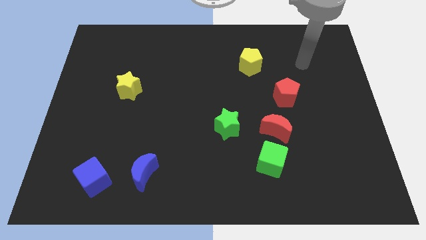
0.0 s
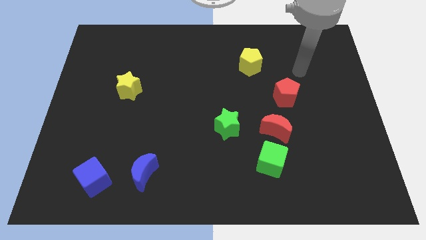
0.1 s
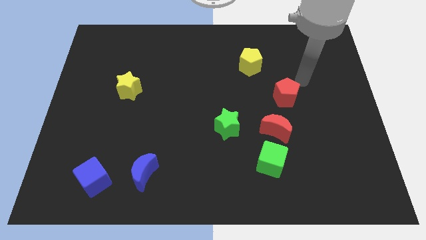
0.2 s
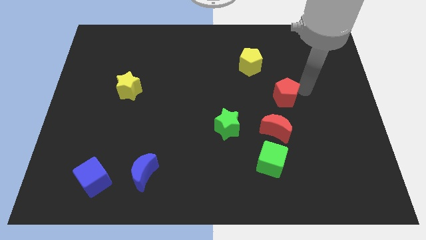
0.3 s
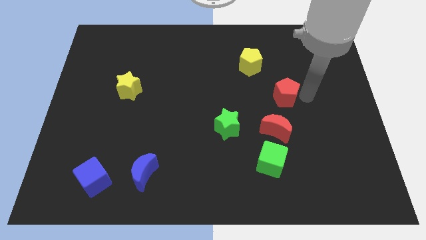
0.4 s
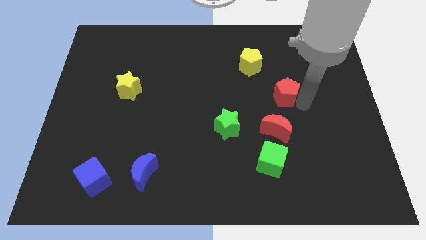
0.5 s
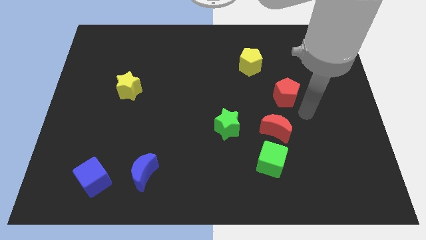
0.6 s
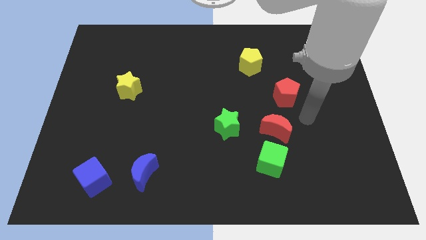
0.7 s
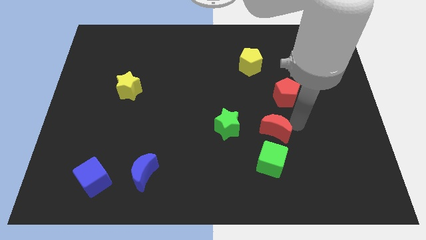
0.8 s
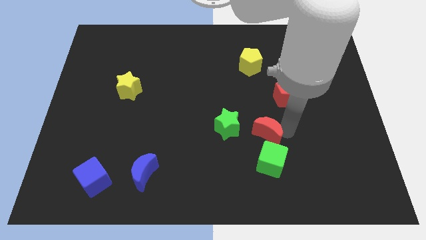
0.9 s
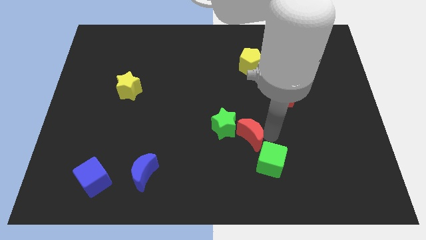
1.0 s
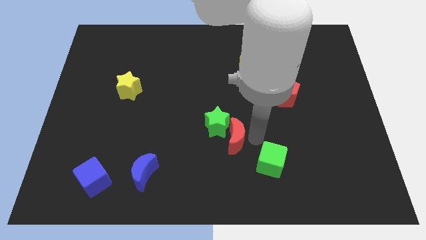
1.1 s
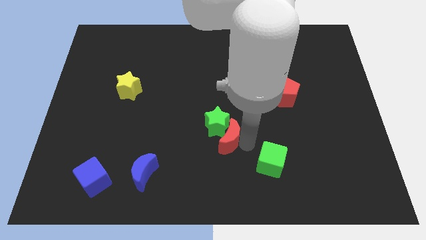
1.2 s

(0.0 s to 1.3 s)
move the green cube away from the red moon

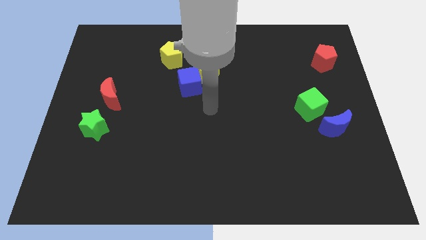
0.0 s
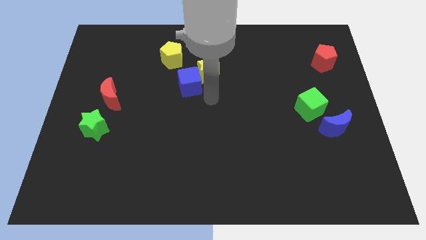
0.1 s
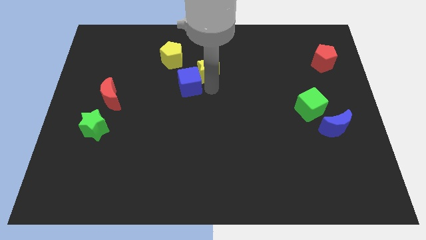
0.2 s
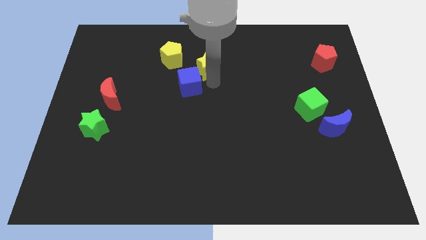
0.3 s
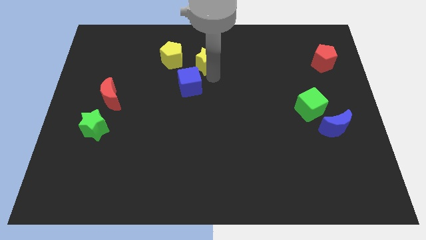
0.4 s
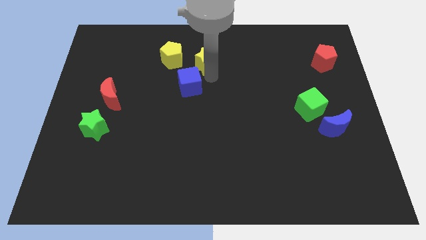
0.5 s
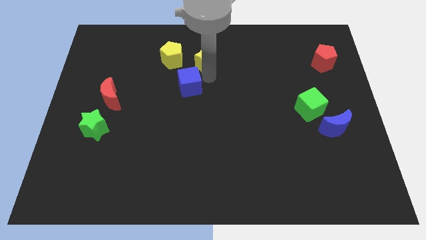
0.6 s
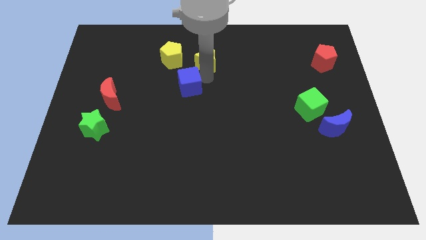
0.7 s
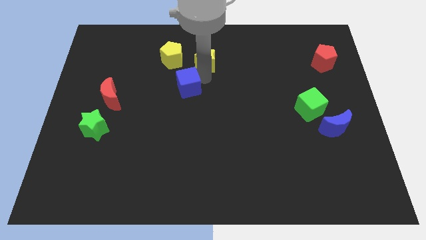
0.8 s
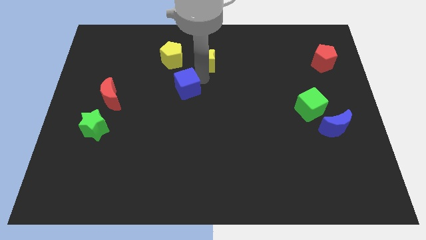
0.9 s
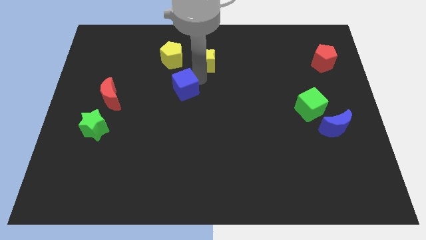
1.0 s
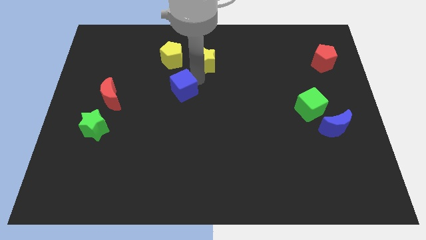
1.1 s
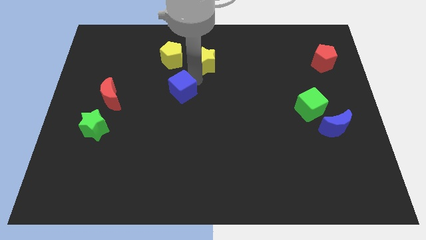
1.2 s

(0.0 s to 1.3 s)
pull the blue cube apart from the yellow star

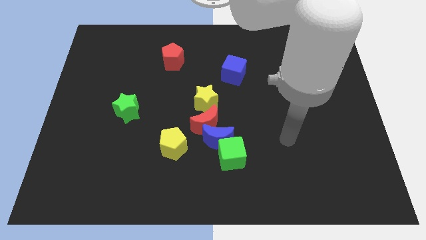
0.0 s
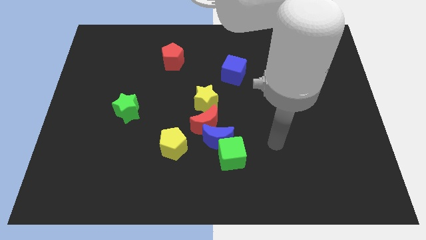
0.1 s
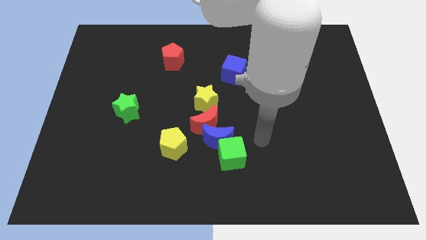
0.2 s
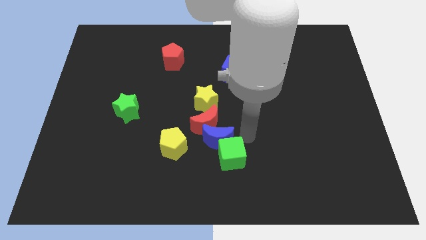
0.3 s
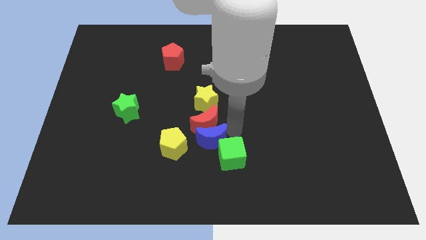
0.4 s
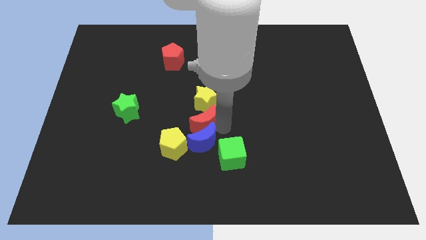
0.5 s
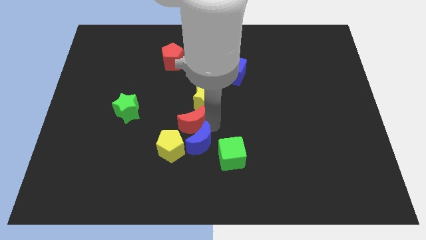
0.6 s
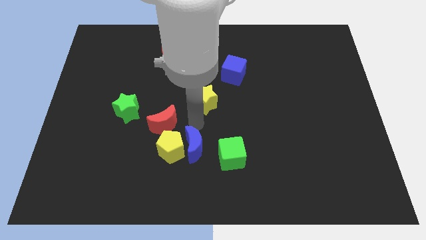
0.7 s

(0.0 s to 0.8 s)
pull the yellow star apart from the red moon

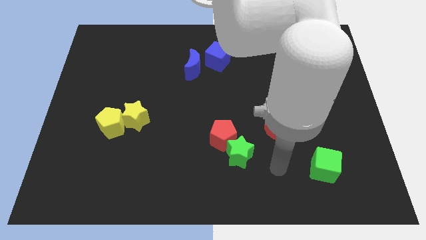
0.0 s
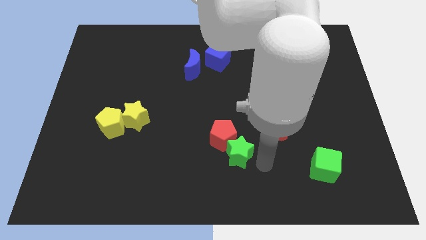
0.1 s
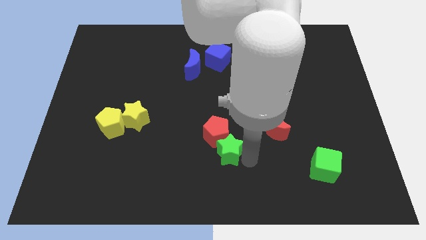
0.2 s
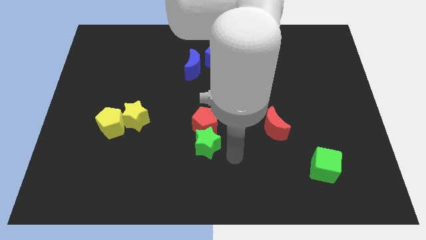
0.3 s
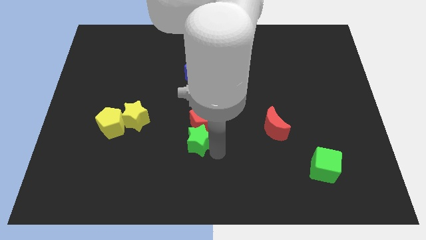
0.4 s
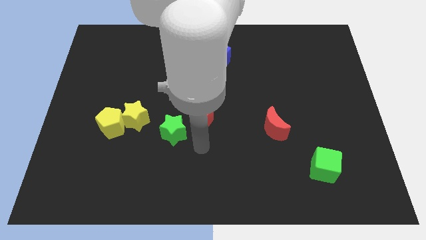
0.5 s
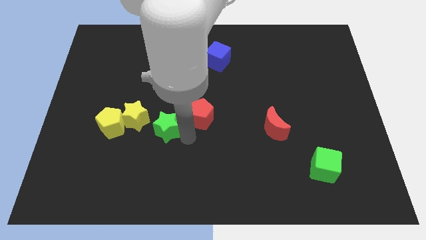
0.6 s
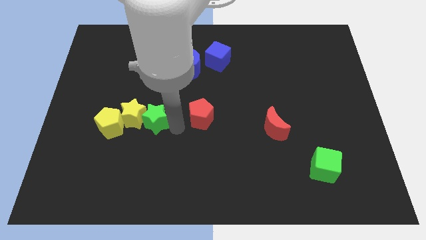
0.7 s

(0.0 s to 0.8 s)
move the red pentagon away from the green star

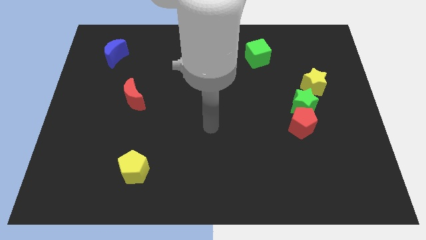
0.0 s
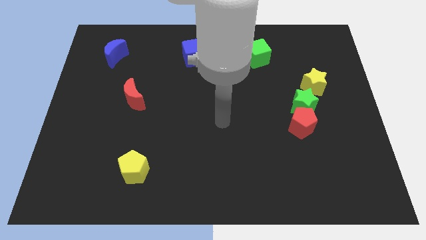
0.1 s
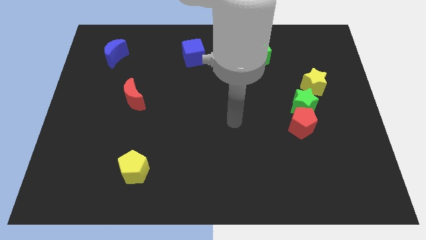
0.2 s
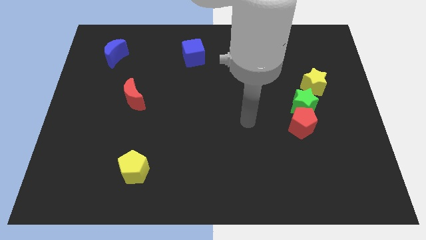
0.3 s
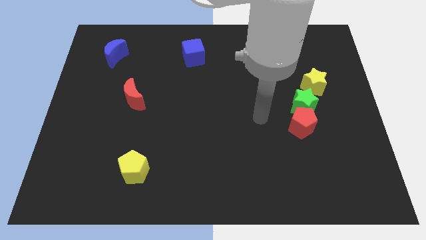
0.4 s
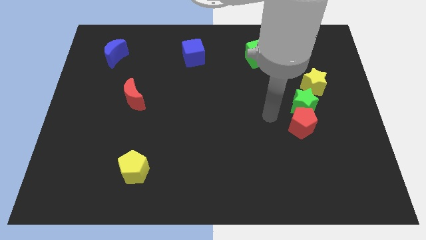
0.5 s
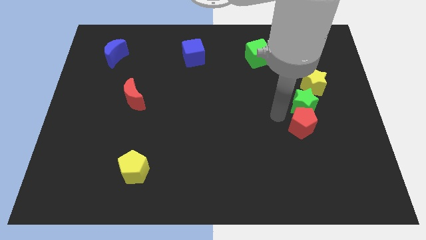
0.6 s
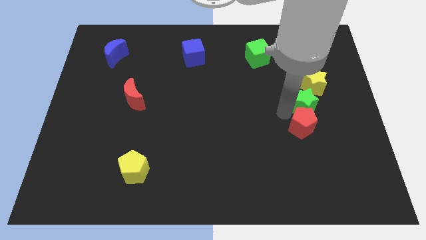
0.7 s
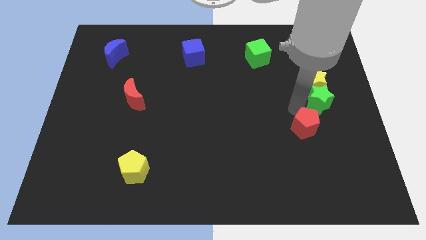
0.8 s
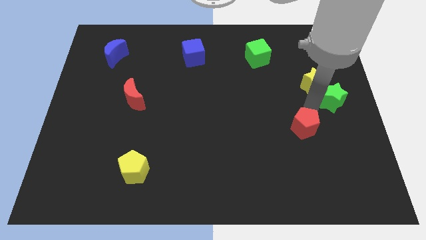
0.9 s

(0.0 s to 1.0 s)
pull the red pentagon apart from the green star

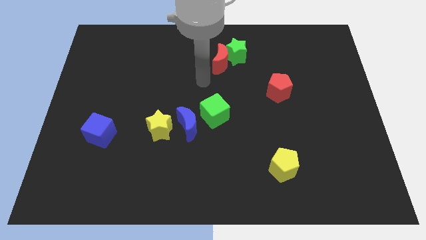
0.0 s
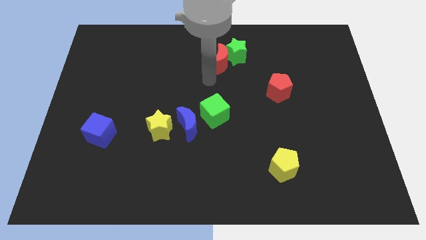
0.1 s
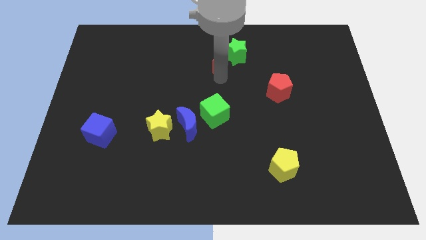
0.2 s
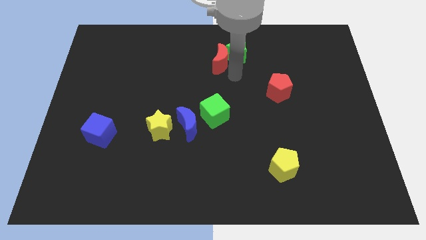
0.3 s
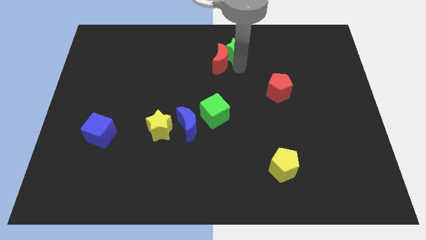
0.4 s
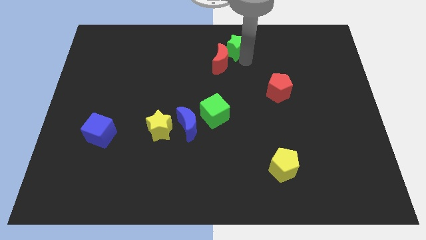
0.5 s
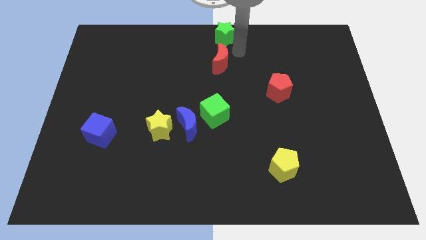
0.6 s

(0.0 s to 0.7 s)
pull the red moon apart from the green star

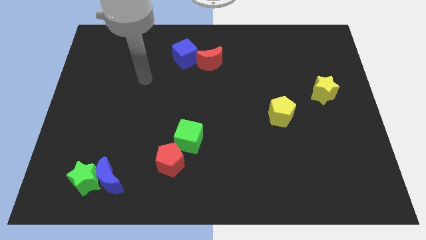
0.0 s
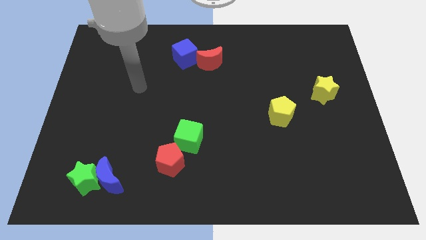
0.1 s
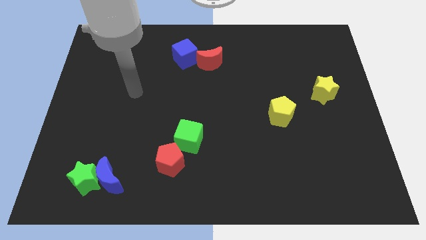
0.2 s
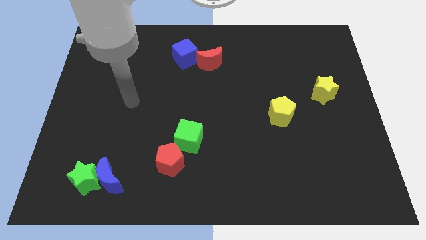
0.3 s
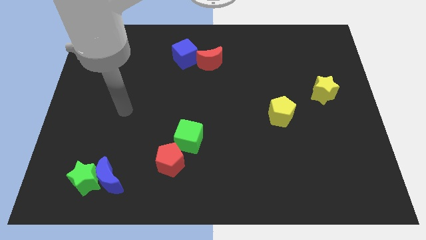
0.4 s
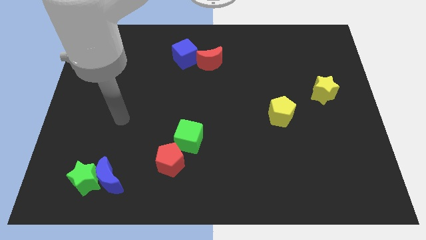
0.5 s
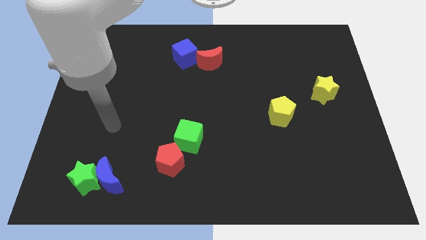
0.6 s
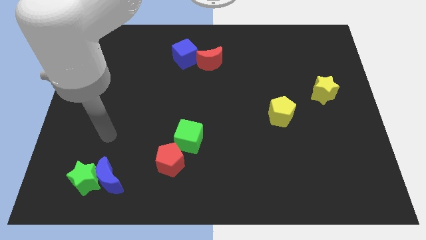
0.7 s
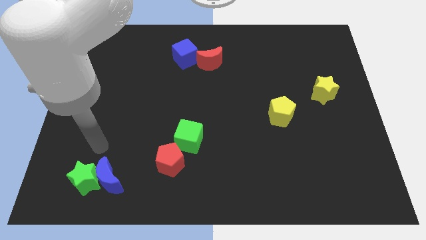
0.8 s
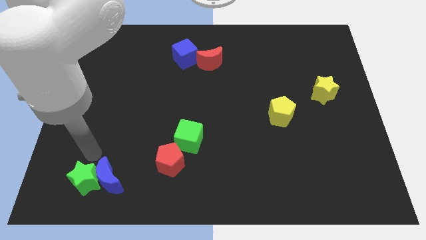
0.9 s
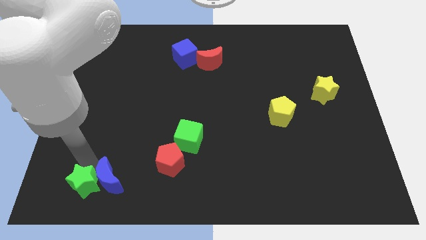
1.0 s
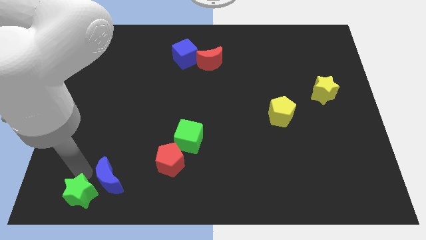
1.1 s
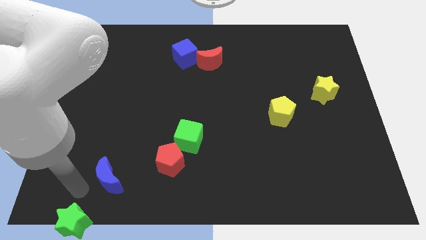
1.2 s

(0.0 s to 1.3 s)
move the blue moon away from the green star

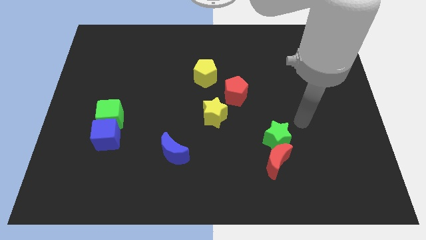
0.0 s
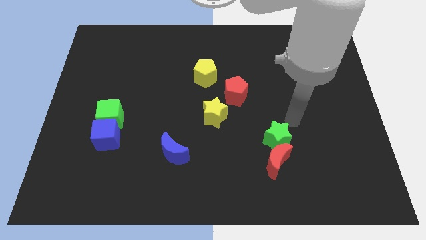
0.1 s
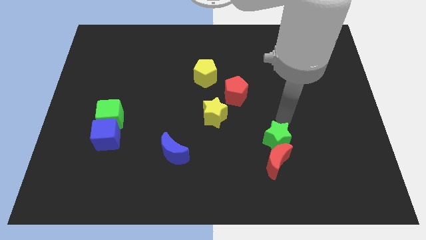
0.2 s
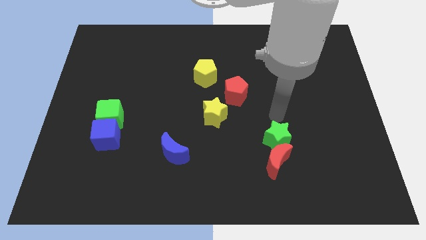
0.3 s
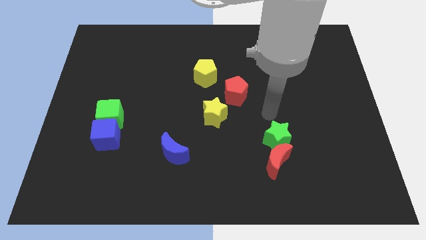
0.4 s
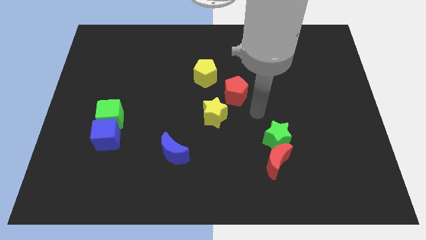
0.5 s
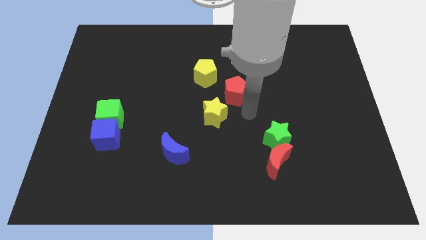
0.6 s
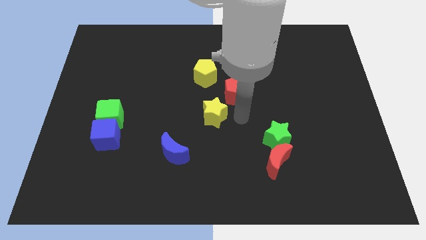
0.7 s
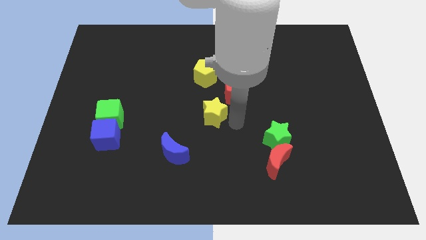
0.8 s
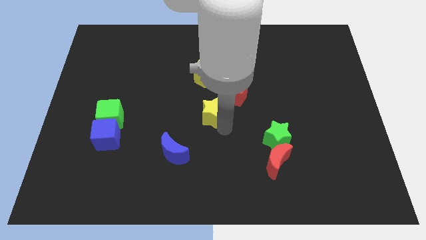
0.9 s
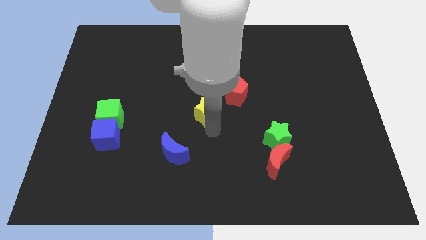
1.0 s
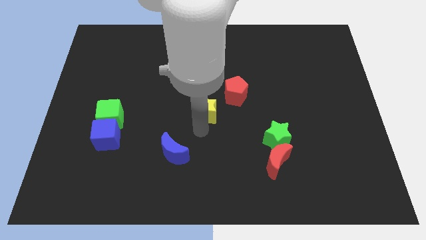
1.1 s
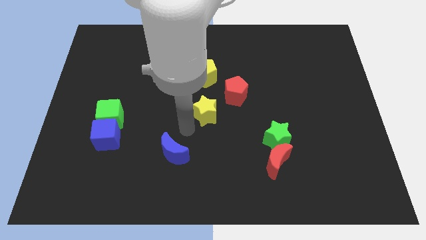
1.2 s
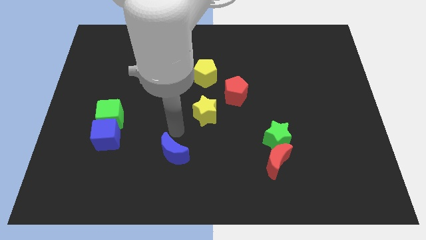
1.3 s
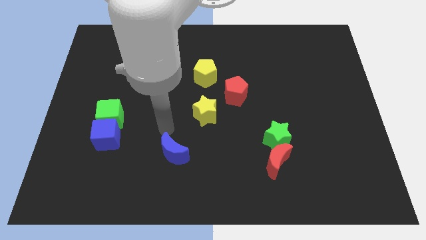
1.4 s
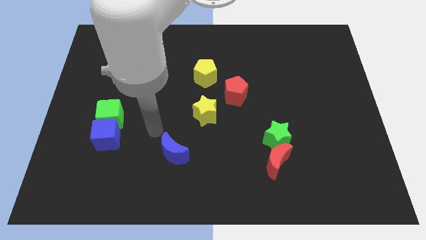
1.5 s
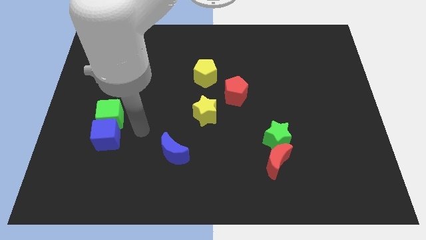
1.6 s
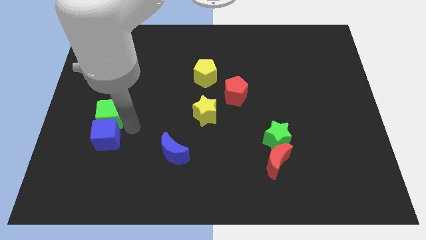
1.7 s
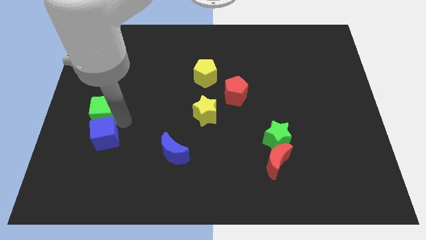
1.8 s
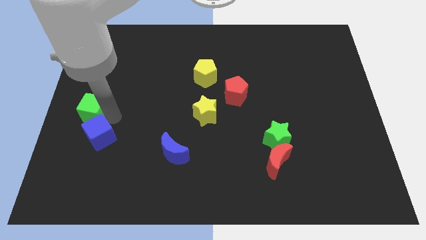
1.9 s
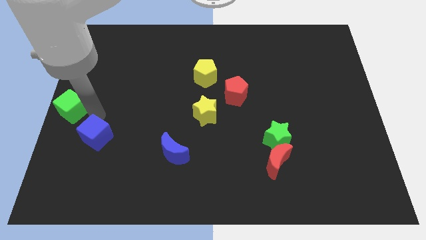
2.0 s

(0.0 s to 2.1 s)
separate the blue cube from the green cube
